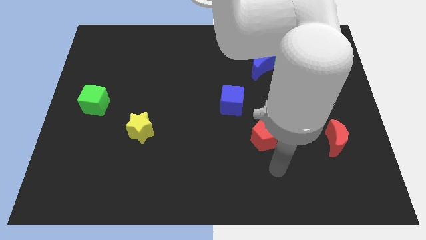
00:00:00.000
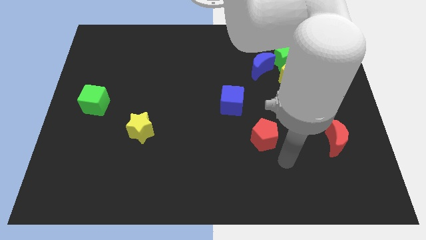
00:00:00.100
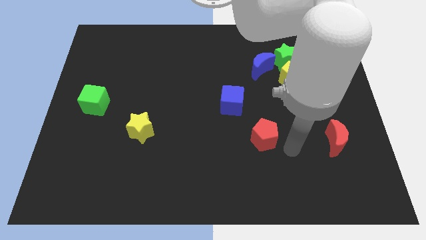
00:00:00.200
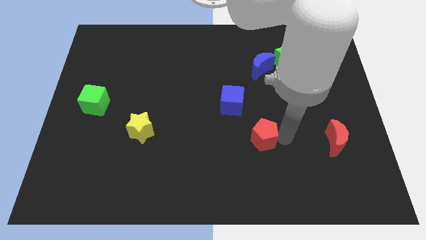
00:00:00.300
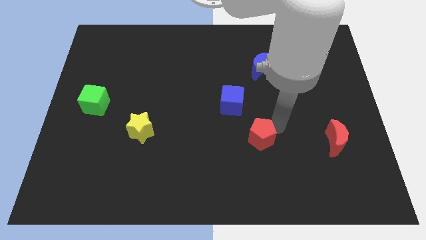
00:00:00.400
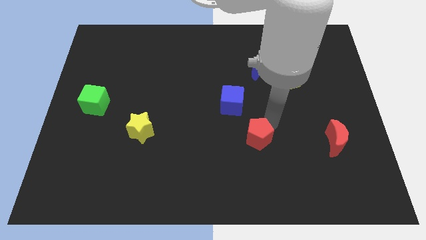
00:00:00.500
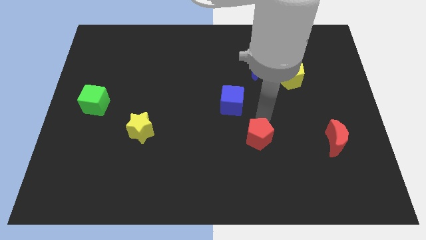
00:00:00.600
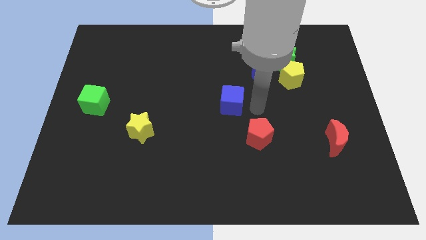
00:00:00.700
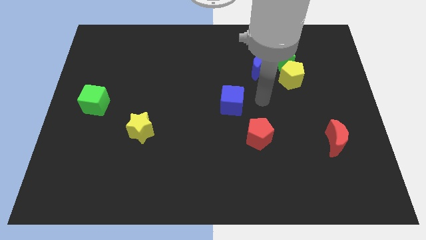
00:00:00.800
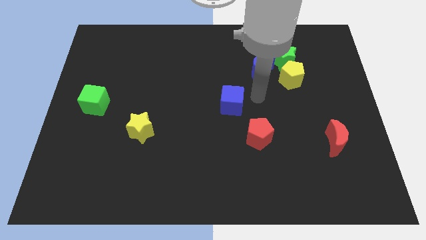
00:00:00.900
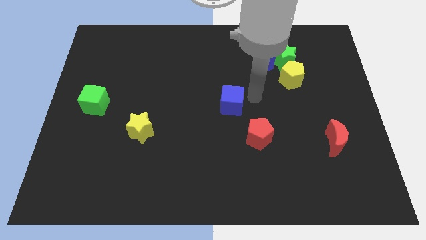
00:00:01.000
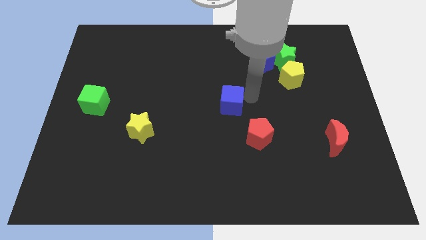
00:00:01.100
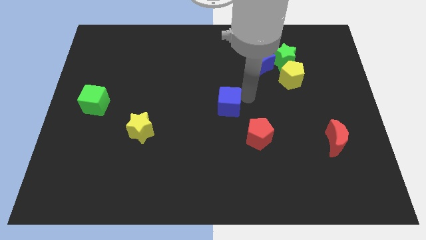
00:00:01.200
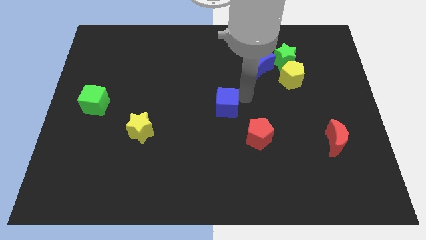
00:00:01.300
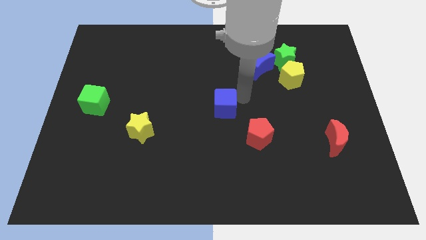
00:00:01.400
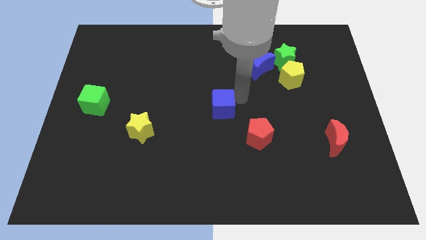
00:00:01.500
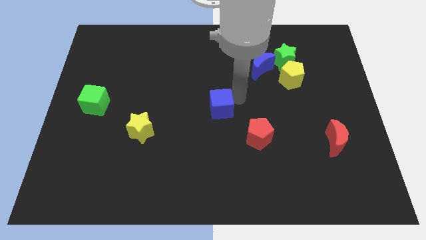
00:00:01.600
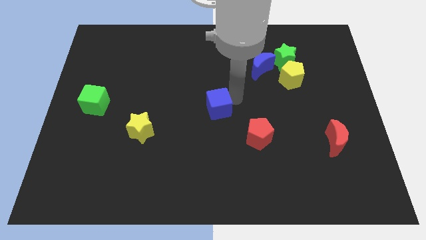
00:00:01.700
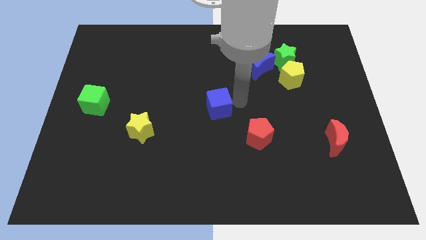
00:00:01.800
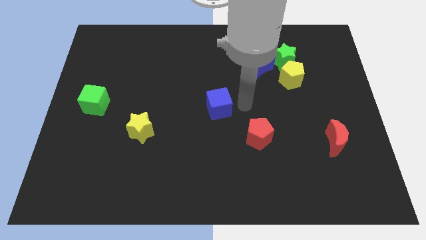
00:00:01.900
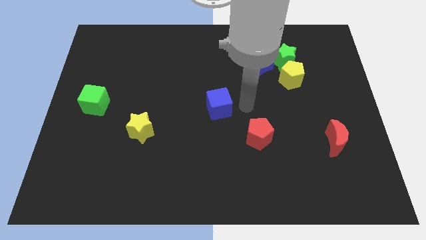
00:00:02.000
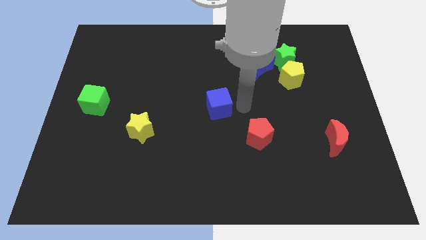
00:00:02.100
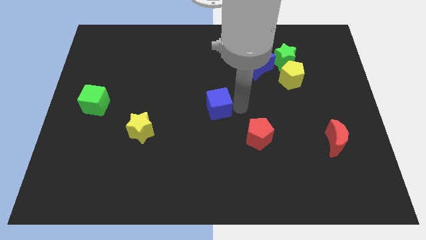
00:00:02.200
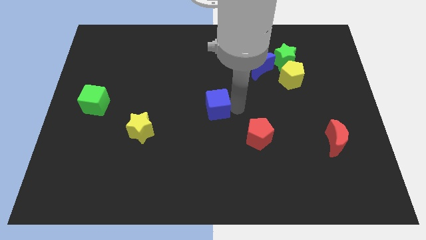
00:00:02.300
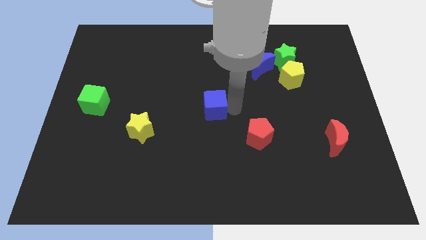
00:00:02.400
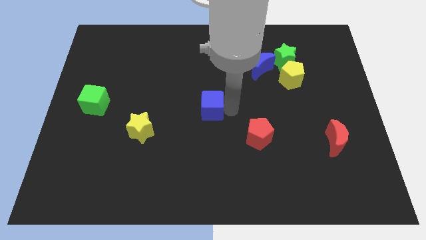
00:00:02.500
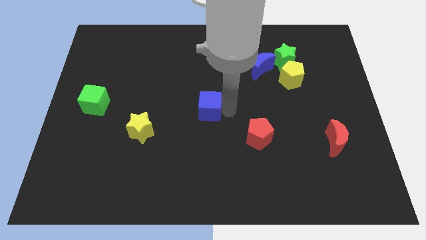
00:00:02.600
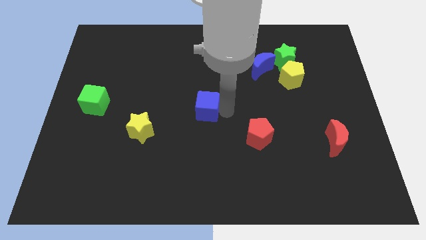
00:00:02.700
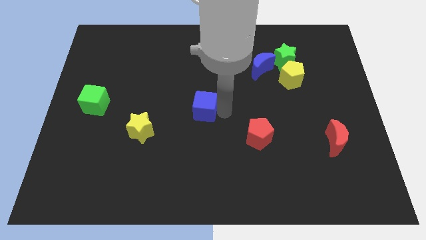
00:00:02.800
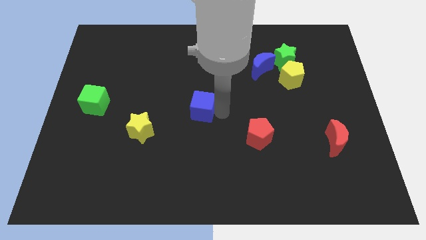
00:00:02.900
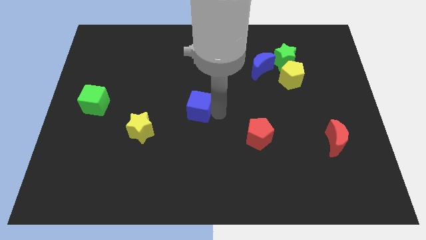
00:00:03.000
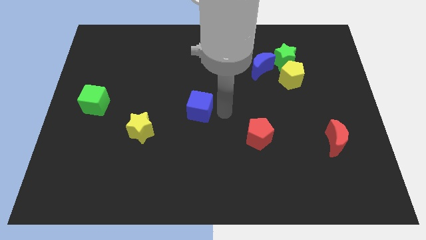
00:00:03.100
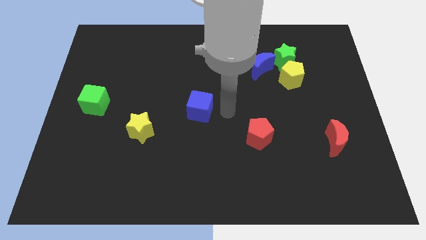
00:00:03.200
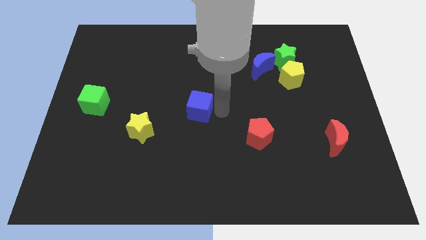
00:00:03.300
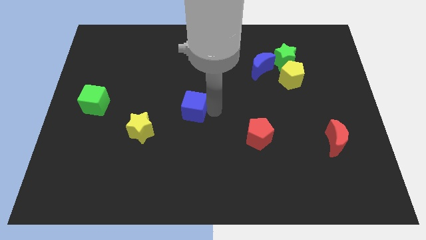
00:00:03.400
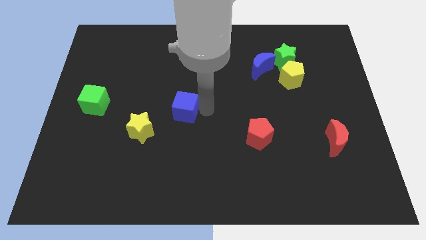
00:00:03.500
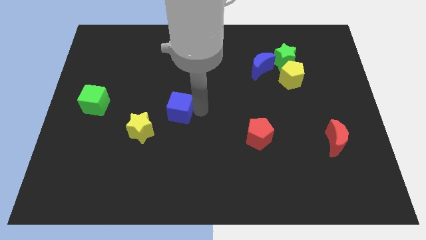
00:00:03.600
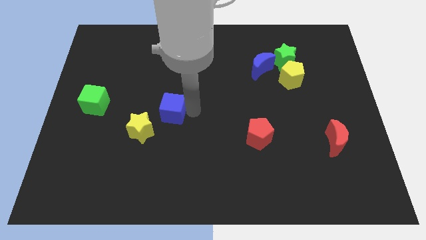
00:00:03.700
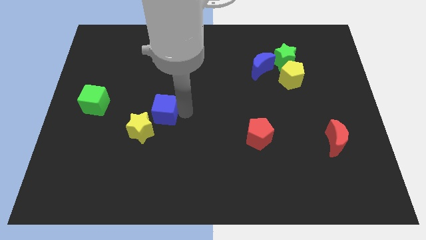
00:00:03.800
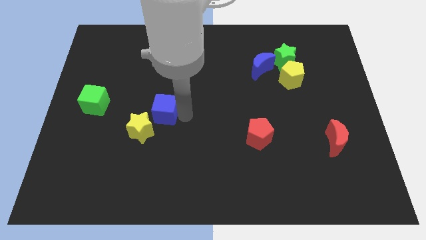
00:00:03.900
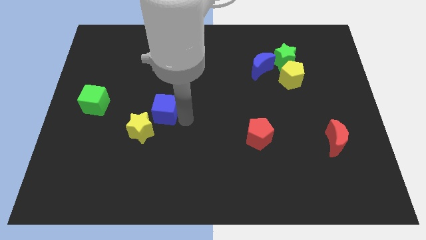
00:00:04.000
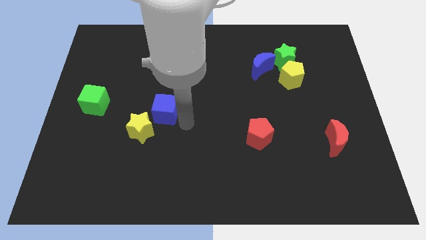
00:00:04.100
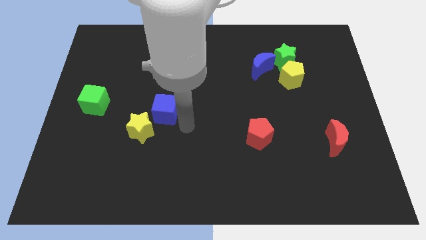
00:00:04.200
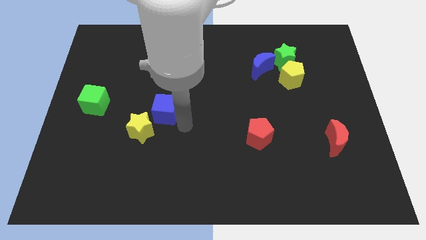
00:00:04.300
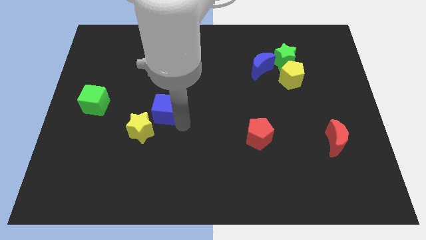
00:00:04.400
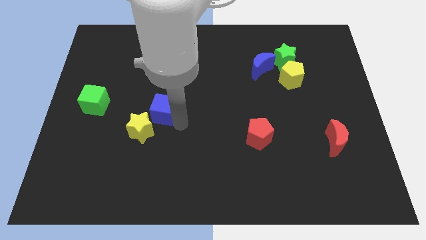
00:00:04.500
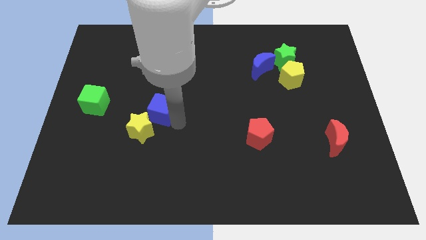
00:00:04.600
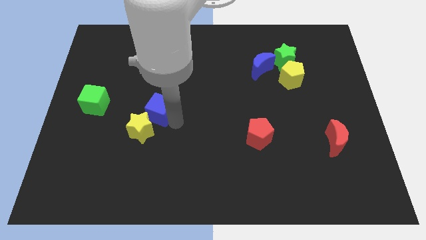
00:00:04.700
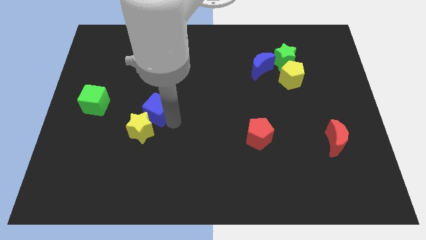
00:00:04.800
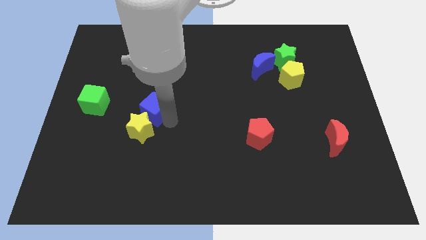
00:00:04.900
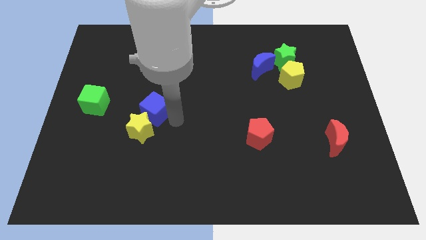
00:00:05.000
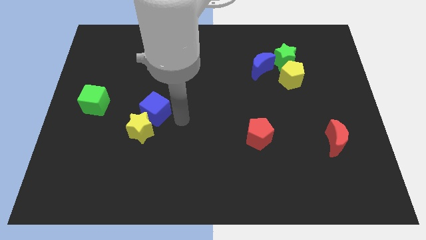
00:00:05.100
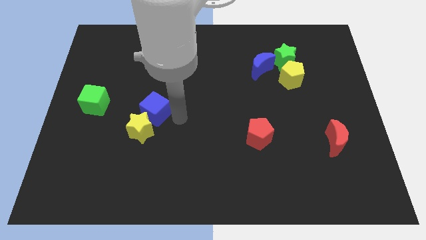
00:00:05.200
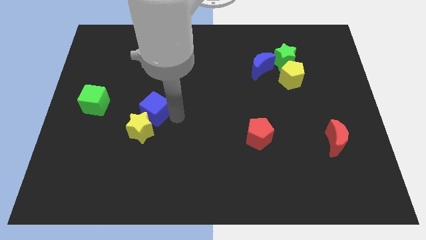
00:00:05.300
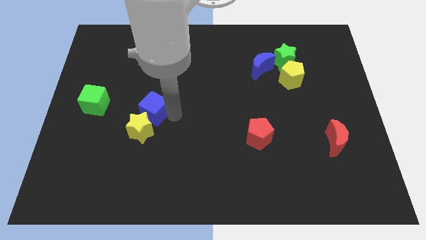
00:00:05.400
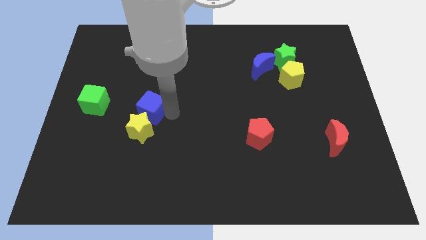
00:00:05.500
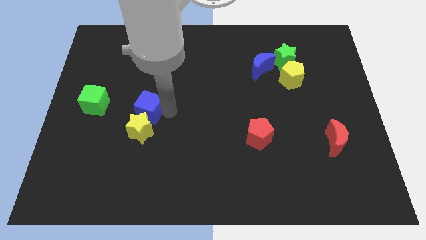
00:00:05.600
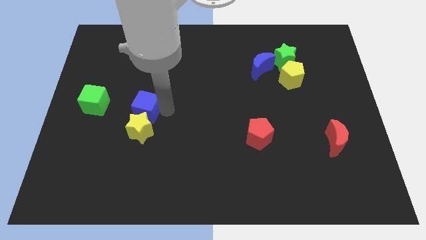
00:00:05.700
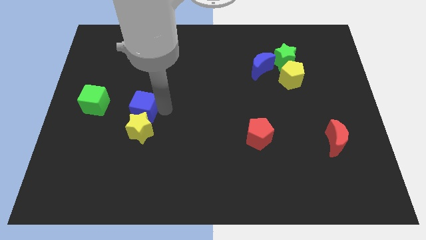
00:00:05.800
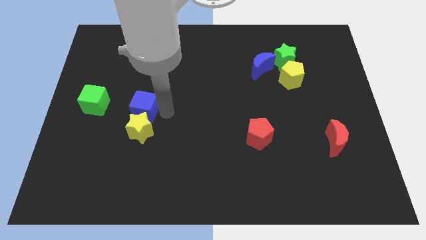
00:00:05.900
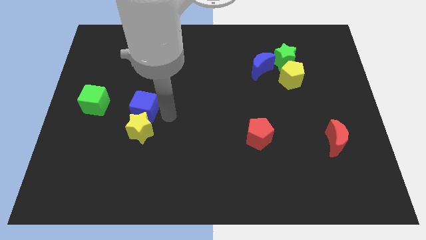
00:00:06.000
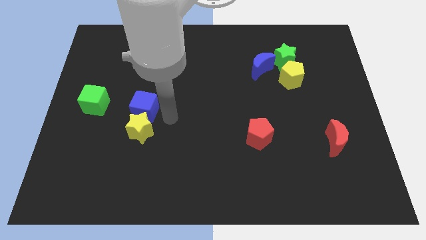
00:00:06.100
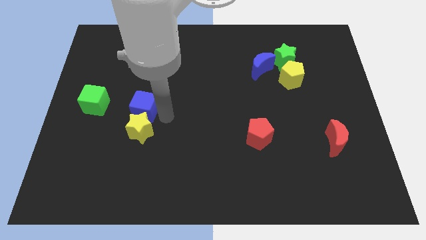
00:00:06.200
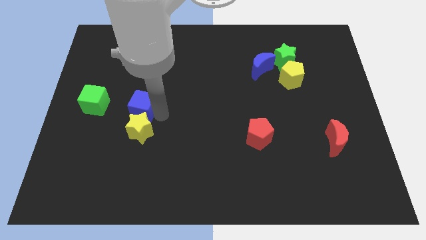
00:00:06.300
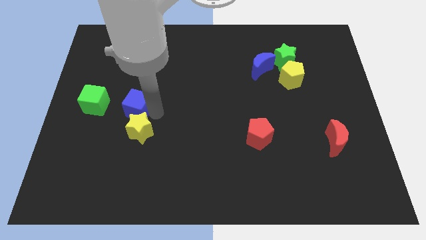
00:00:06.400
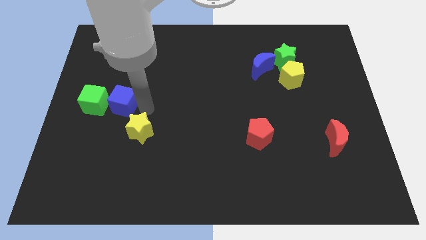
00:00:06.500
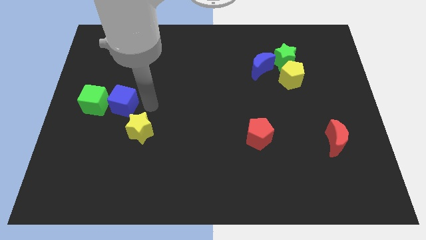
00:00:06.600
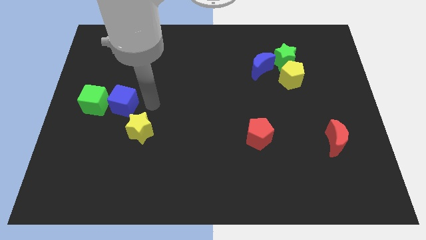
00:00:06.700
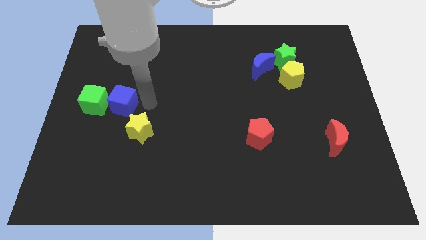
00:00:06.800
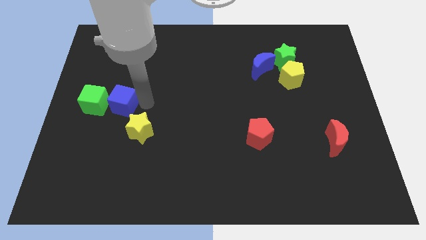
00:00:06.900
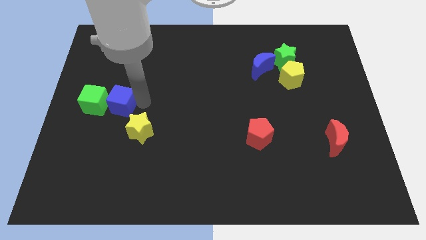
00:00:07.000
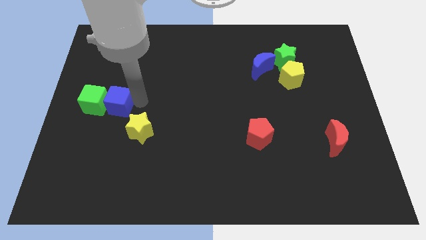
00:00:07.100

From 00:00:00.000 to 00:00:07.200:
slide the blue cube close to the green cube
